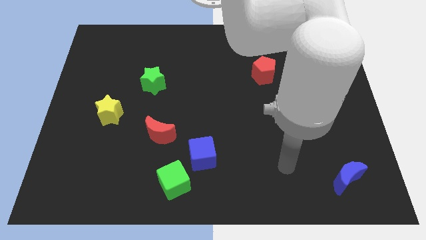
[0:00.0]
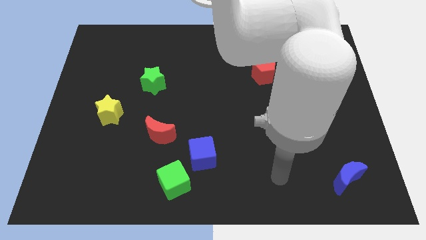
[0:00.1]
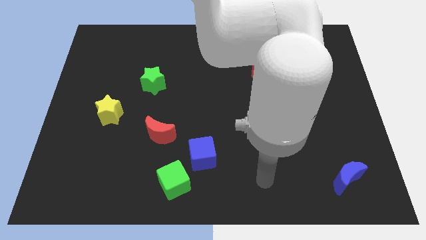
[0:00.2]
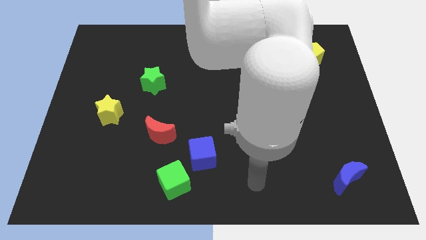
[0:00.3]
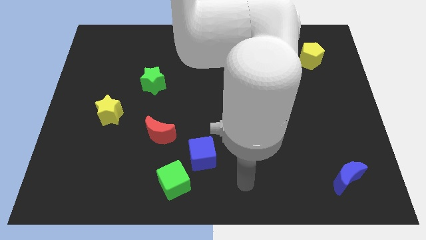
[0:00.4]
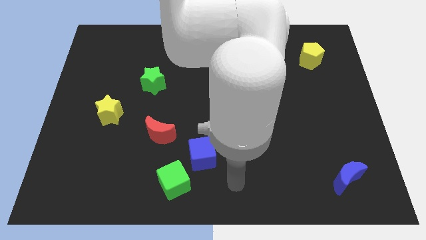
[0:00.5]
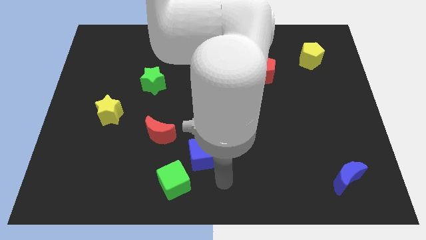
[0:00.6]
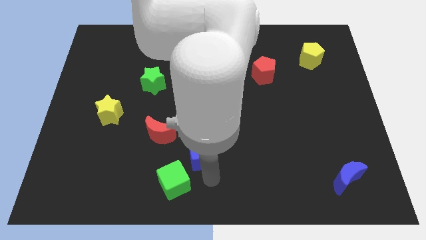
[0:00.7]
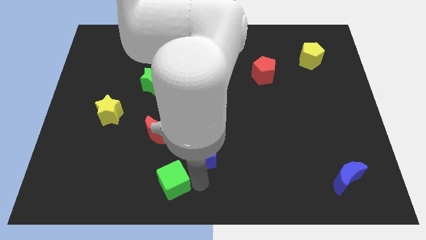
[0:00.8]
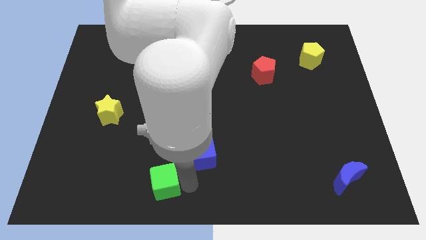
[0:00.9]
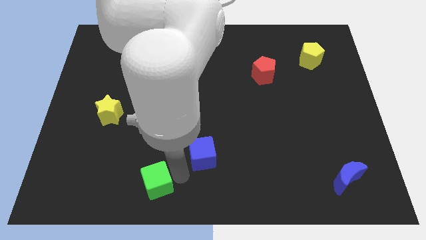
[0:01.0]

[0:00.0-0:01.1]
move the blue cube away from the green cube

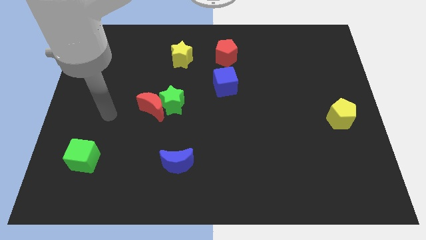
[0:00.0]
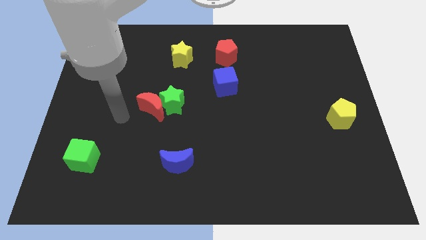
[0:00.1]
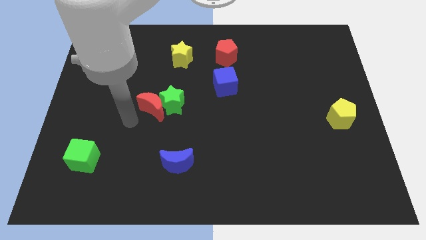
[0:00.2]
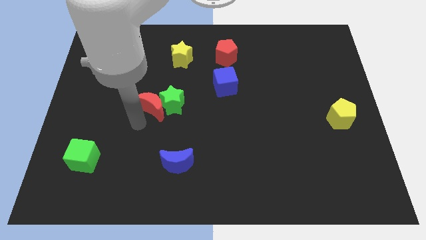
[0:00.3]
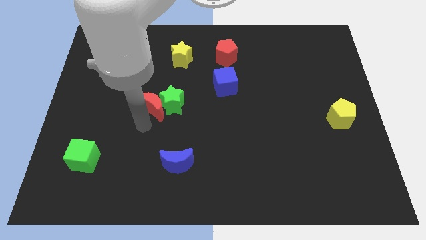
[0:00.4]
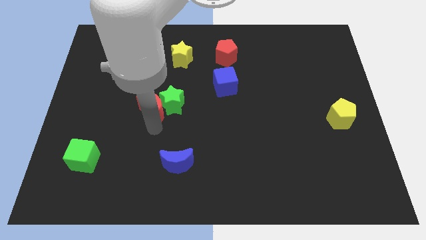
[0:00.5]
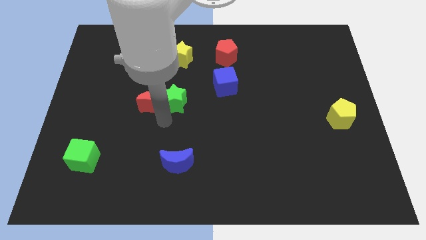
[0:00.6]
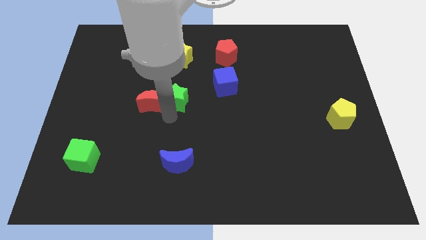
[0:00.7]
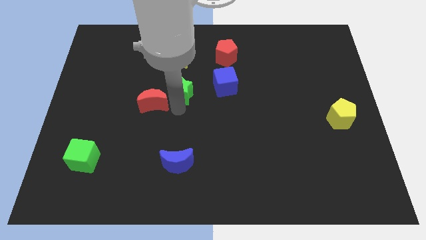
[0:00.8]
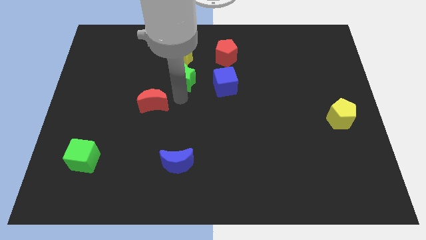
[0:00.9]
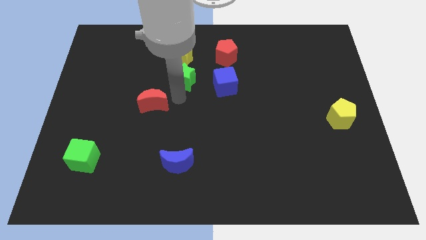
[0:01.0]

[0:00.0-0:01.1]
move the red moon away from the green star

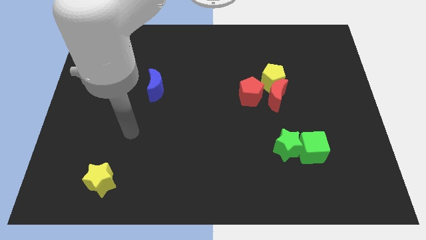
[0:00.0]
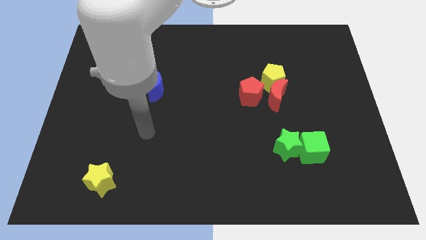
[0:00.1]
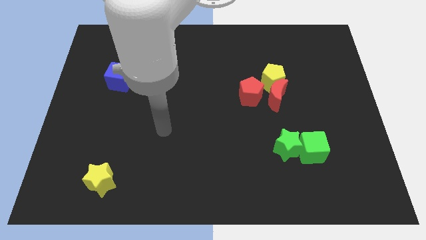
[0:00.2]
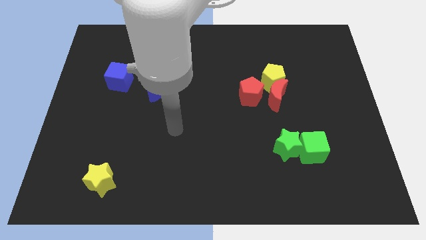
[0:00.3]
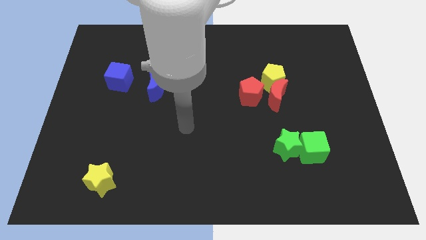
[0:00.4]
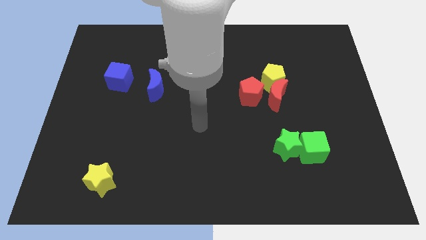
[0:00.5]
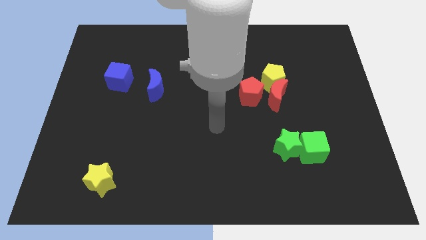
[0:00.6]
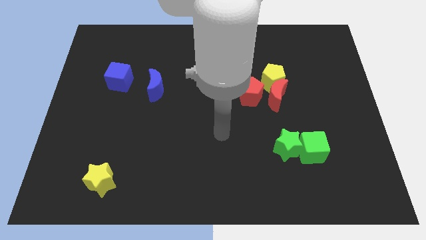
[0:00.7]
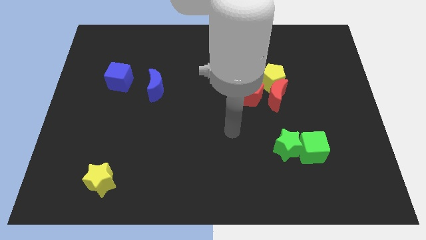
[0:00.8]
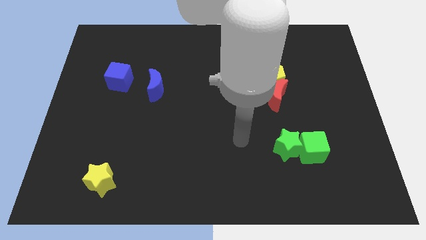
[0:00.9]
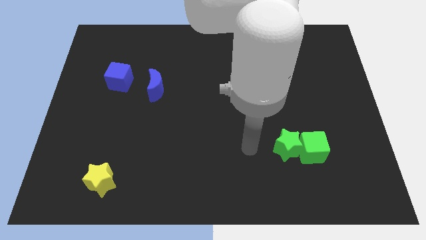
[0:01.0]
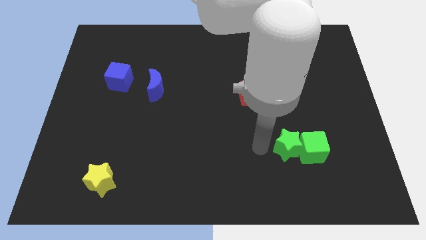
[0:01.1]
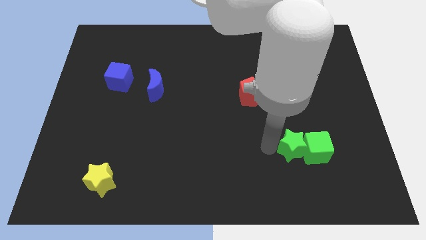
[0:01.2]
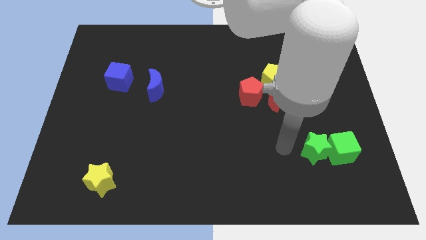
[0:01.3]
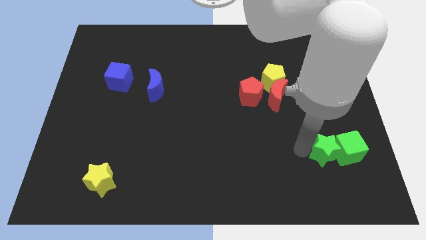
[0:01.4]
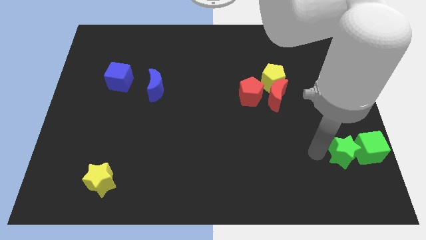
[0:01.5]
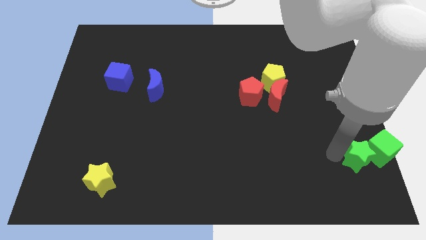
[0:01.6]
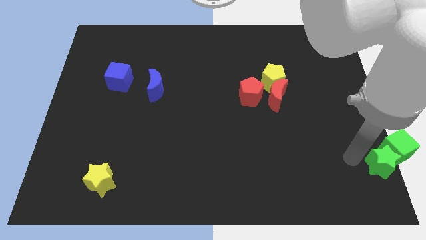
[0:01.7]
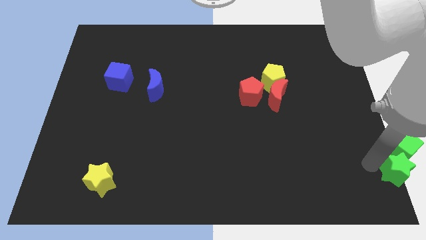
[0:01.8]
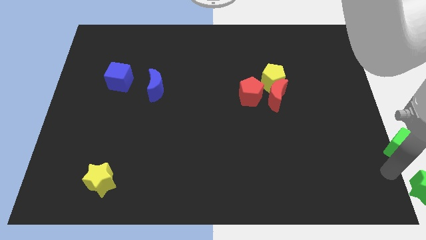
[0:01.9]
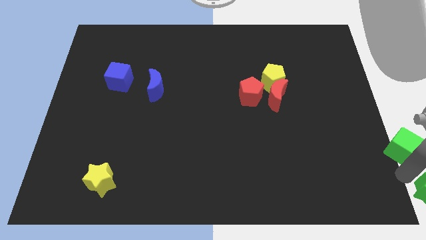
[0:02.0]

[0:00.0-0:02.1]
move the green cube away from the green star

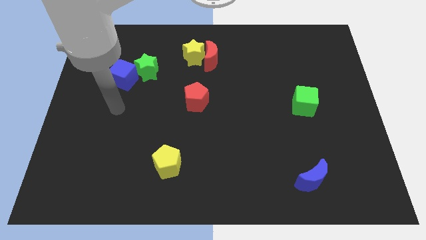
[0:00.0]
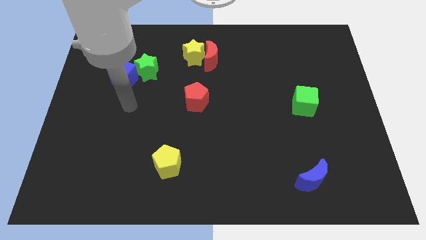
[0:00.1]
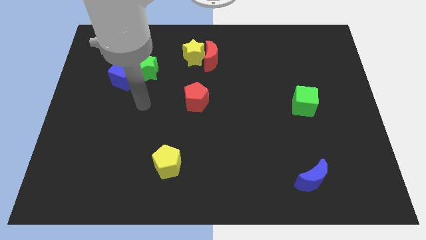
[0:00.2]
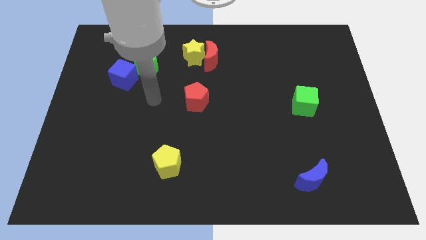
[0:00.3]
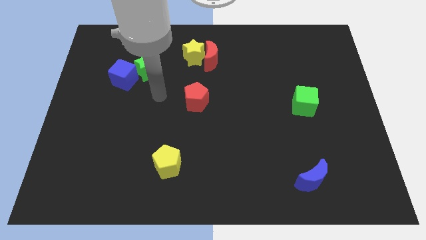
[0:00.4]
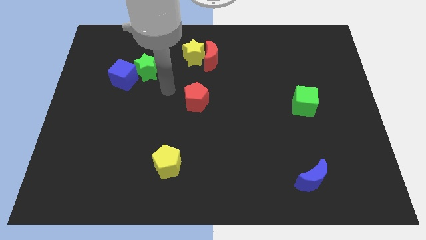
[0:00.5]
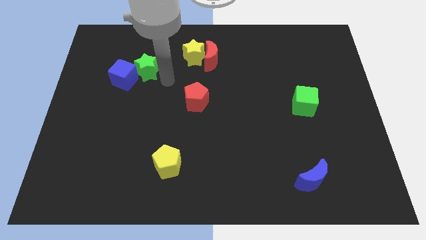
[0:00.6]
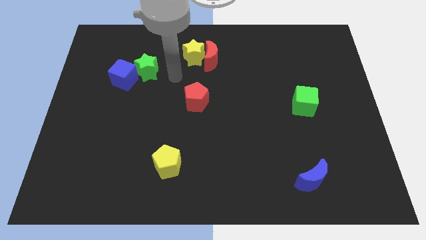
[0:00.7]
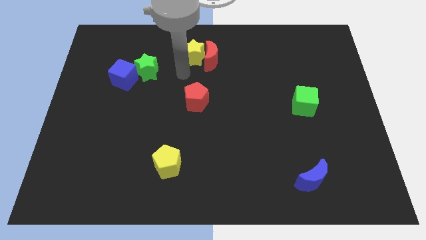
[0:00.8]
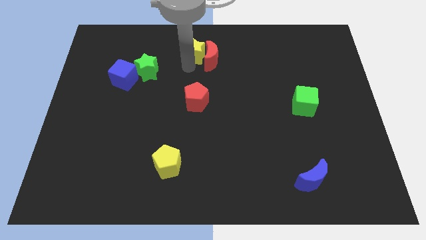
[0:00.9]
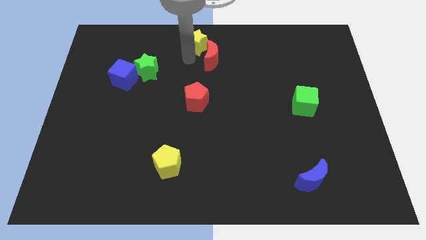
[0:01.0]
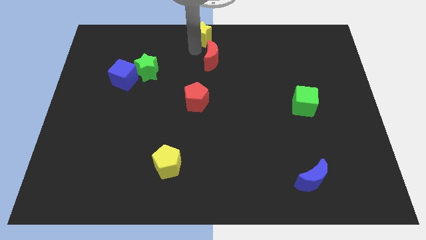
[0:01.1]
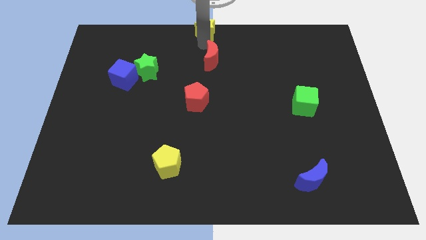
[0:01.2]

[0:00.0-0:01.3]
pull the red moon apart from the yellow star

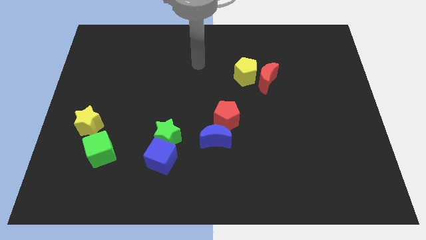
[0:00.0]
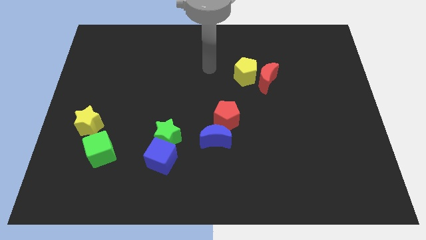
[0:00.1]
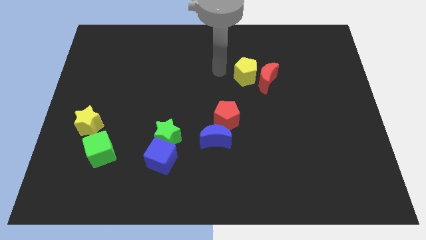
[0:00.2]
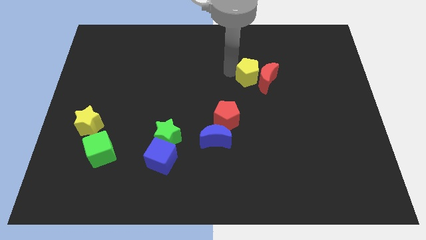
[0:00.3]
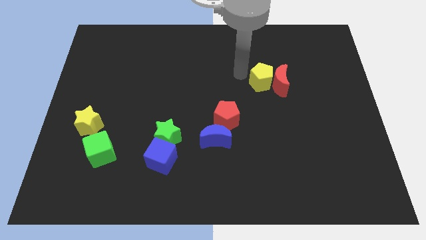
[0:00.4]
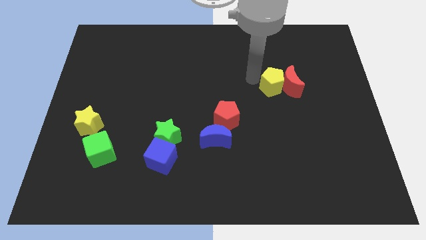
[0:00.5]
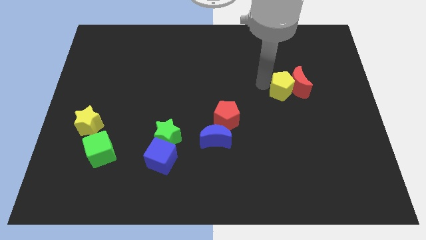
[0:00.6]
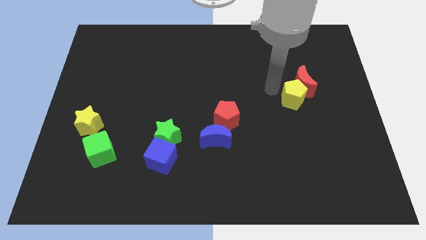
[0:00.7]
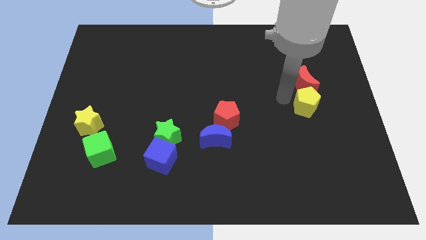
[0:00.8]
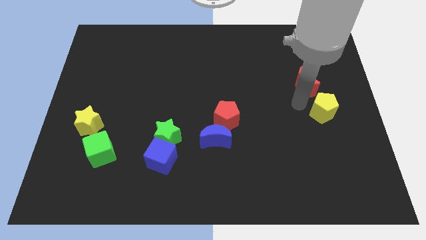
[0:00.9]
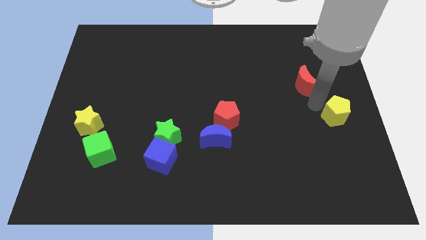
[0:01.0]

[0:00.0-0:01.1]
pull the red moon apart from the yellow pentagon

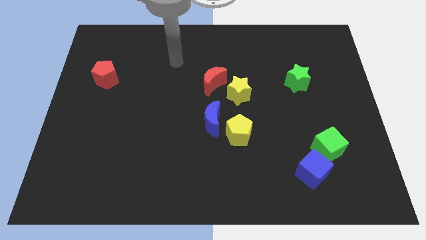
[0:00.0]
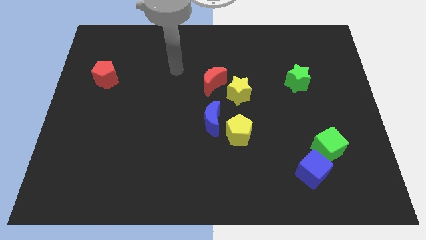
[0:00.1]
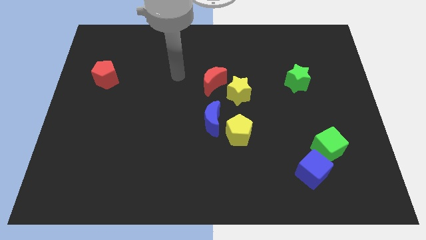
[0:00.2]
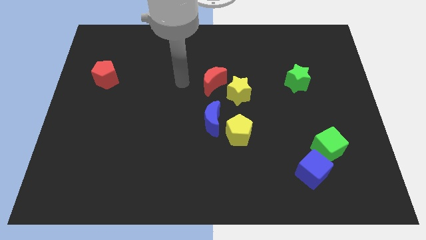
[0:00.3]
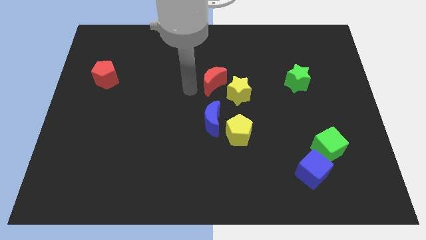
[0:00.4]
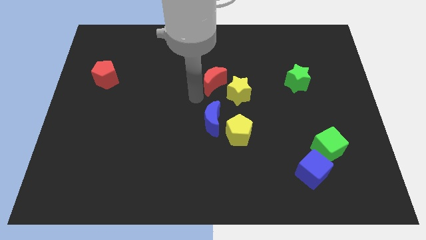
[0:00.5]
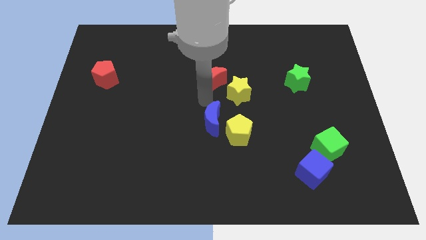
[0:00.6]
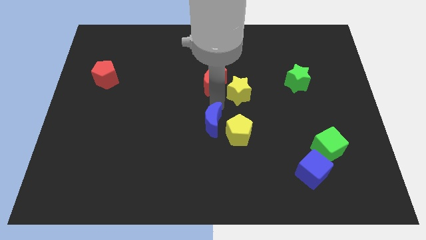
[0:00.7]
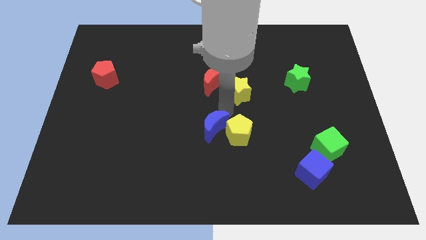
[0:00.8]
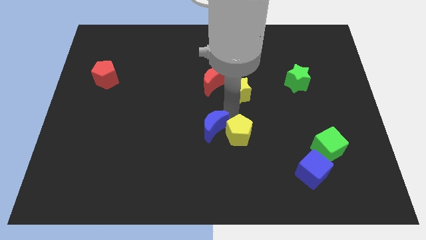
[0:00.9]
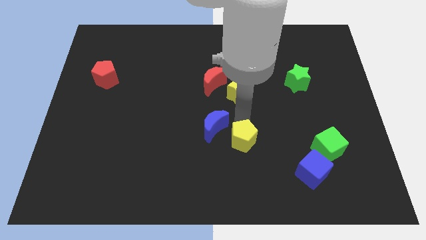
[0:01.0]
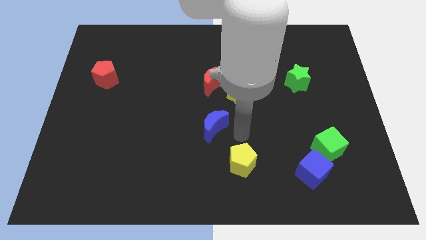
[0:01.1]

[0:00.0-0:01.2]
separate the blue moon from the yellow pentagon

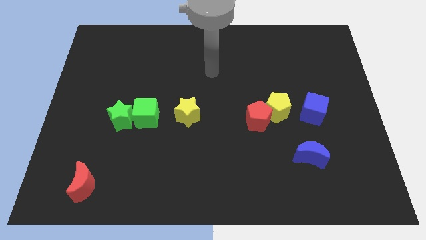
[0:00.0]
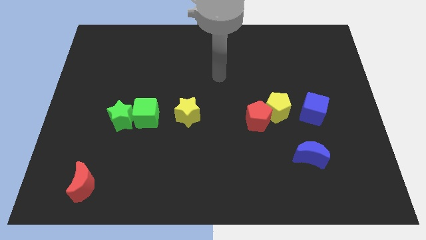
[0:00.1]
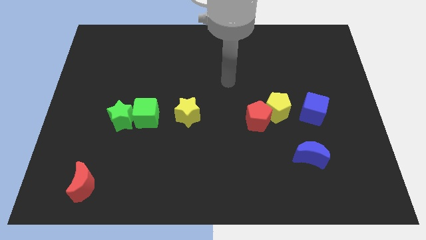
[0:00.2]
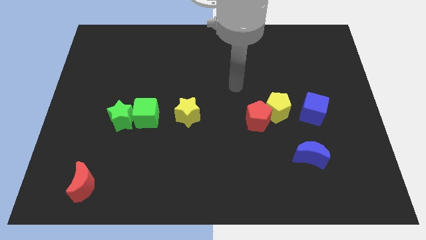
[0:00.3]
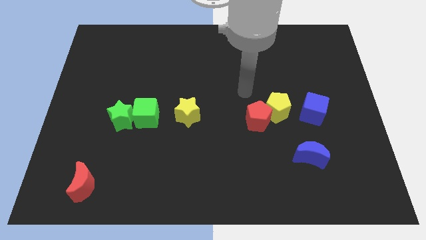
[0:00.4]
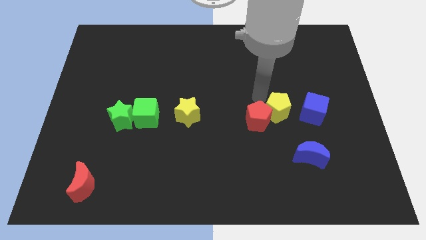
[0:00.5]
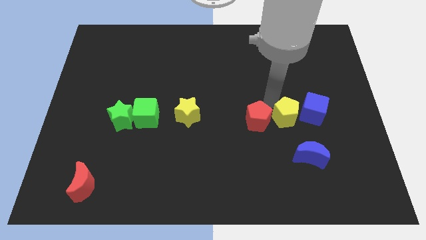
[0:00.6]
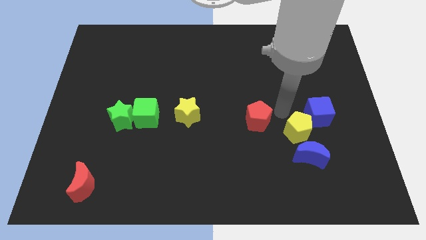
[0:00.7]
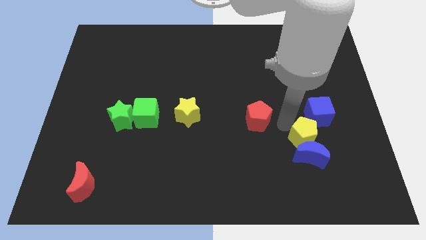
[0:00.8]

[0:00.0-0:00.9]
move the red pentagon away from the yellow pentagon

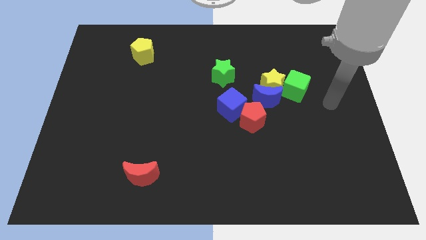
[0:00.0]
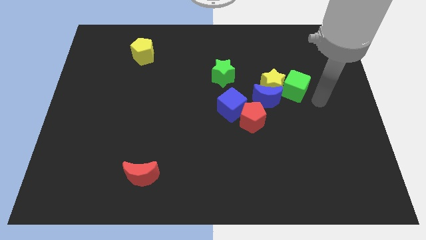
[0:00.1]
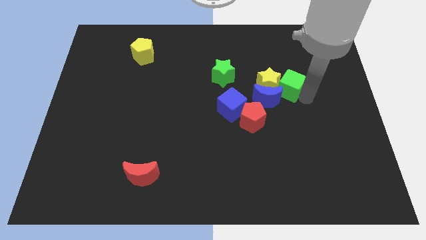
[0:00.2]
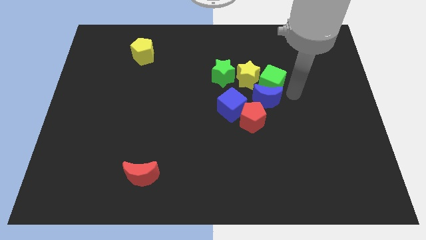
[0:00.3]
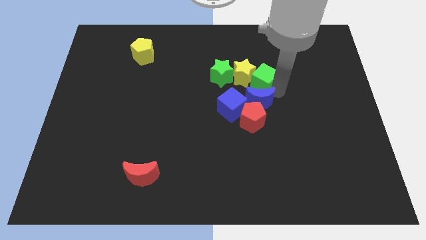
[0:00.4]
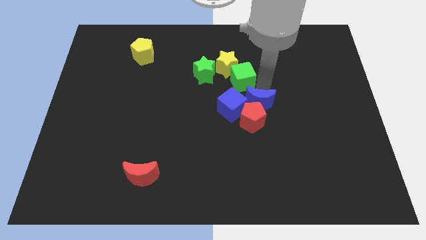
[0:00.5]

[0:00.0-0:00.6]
move the yellow star away from the blue moon and green cube
